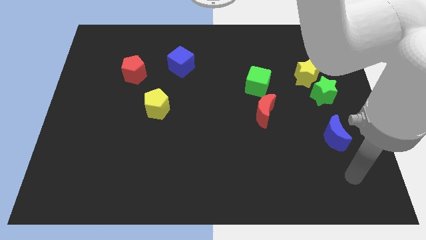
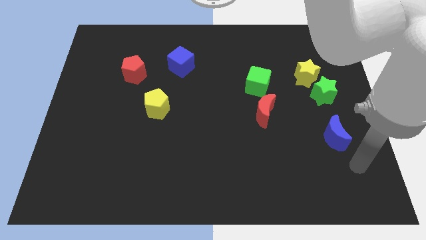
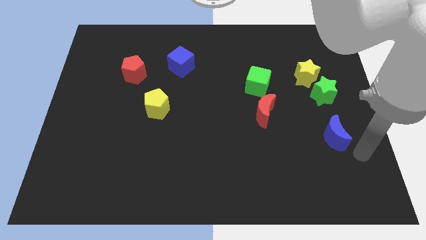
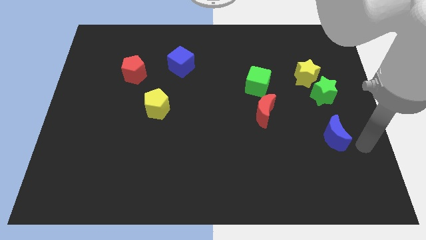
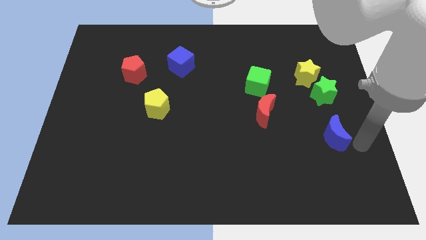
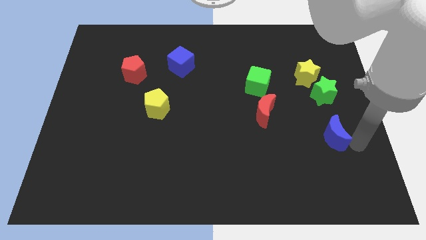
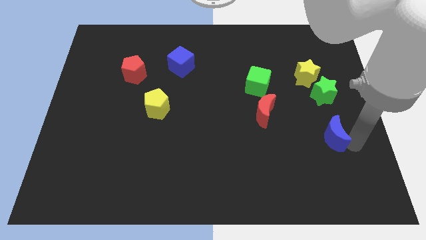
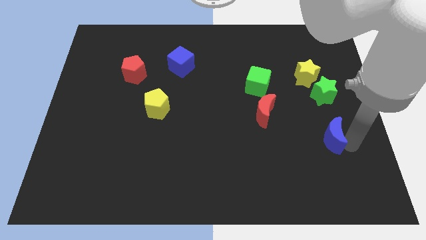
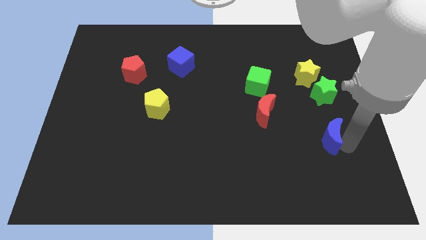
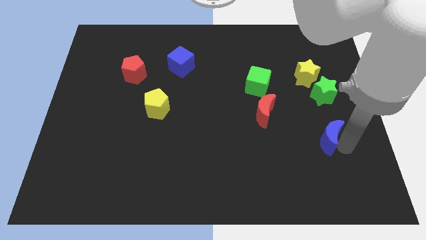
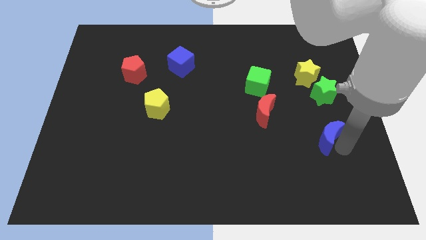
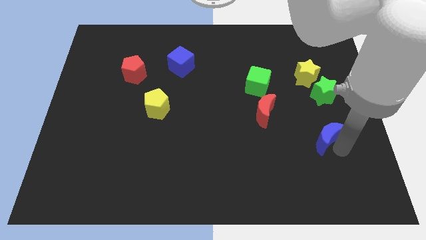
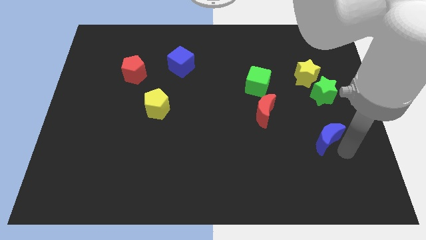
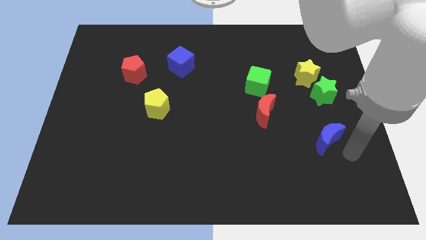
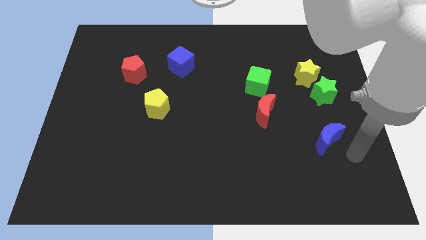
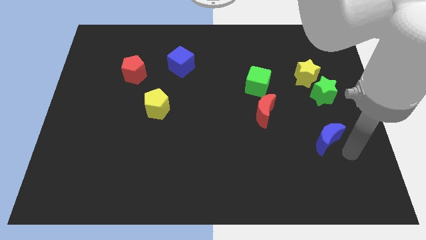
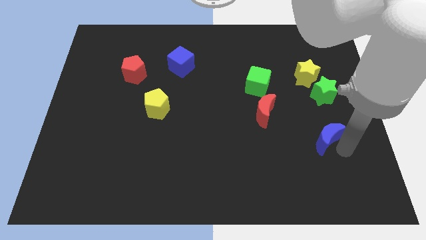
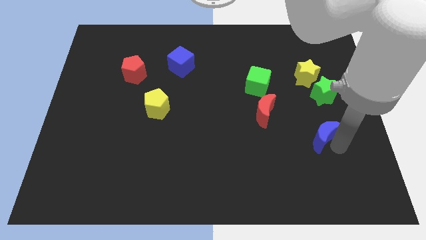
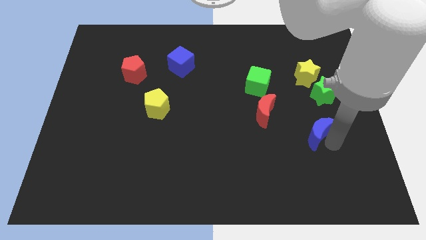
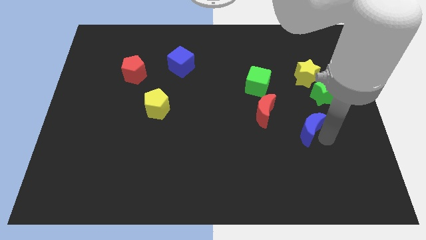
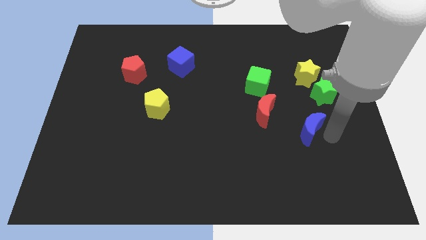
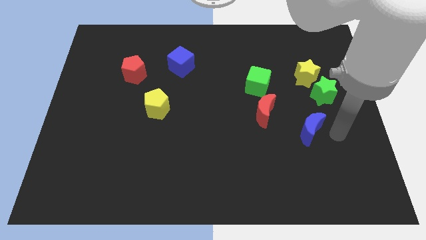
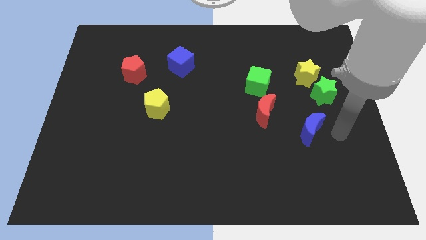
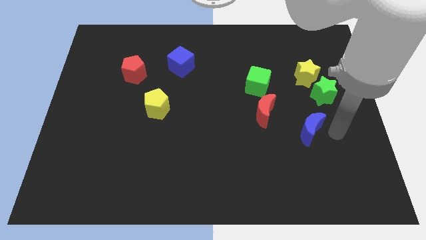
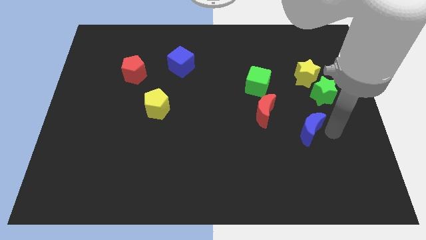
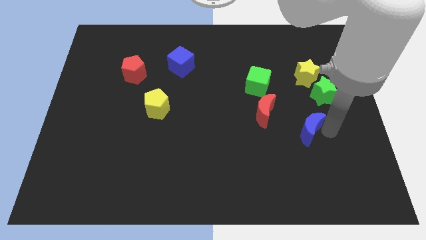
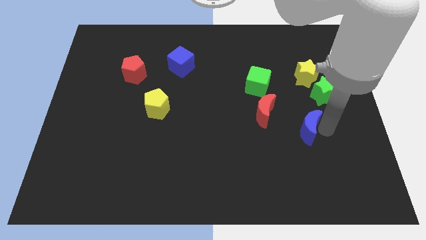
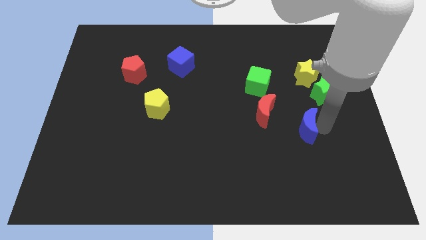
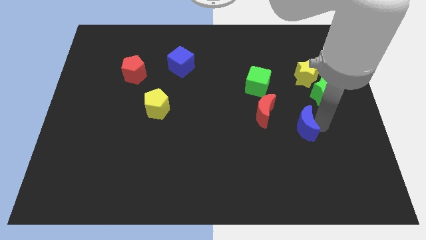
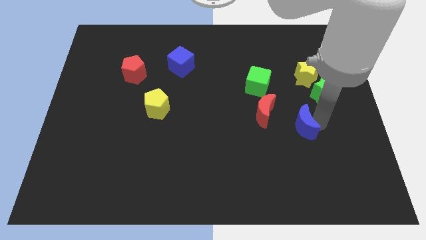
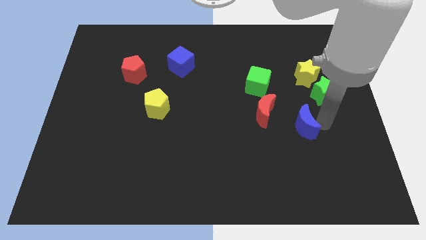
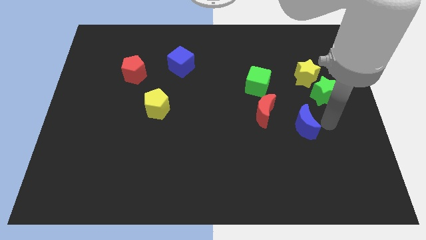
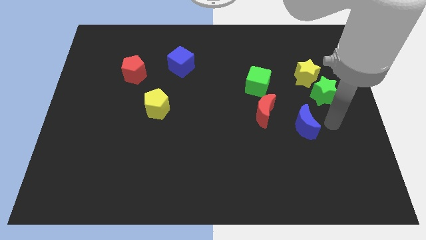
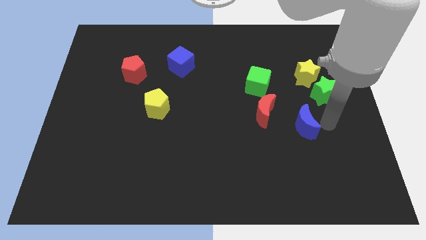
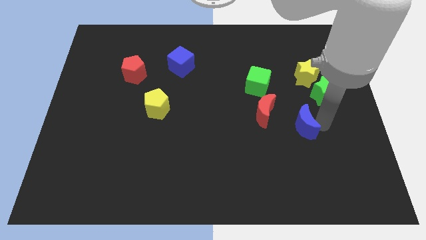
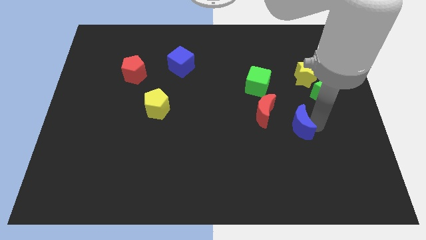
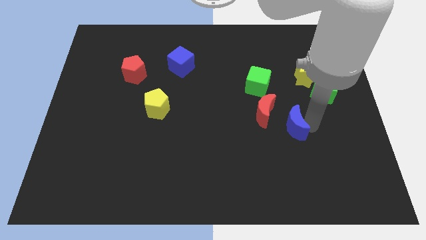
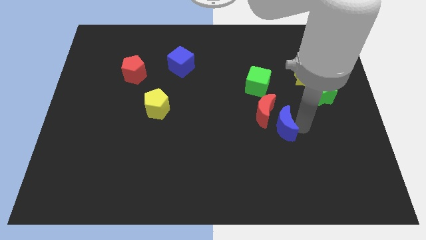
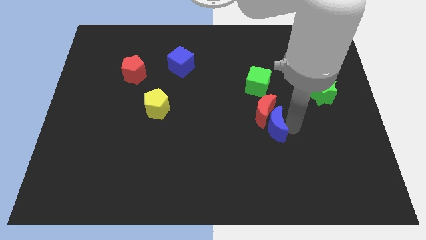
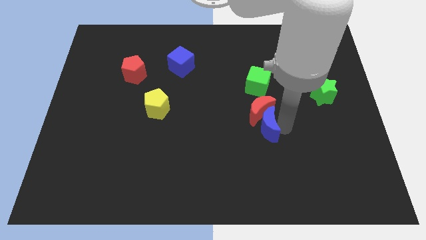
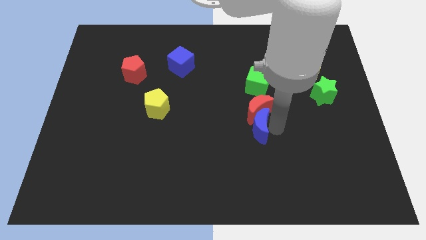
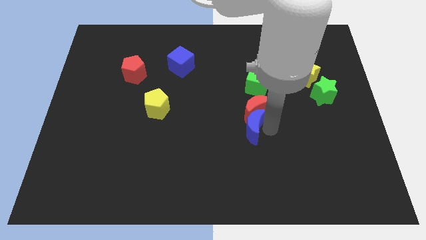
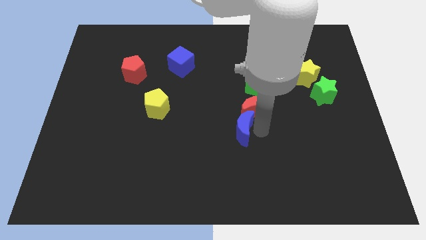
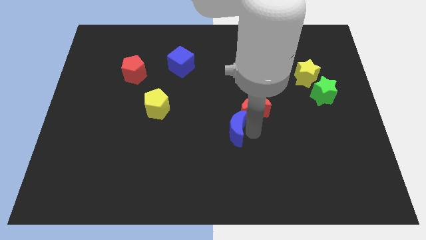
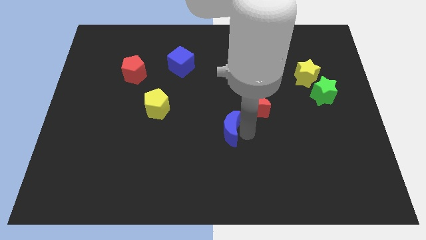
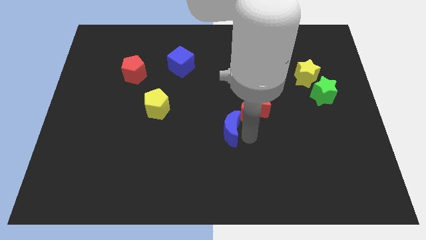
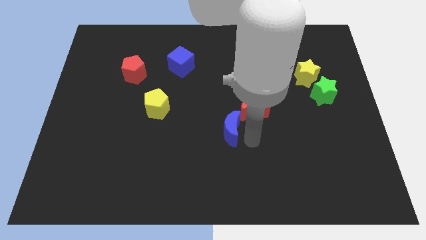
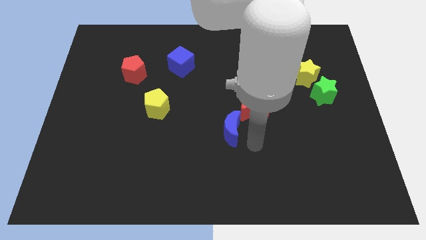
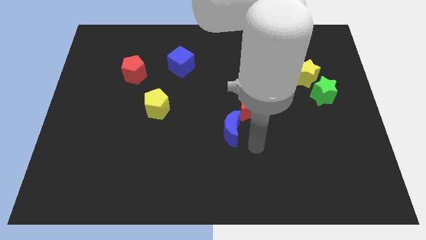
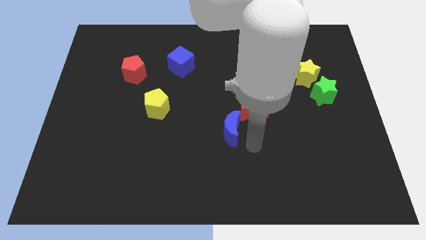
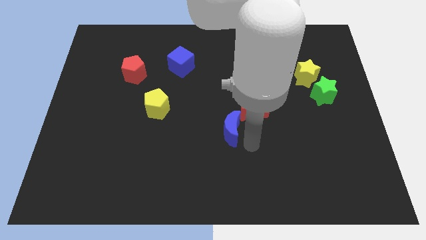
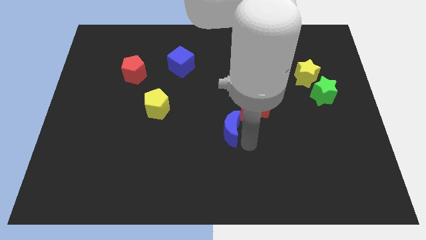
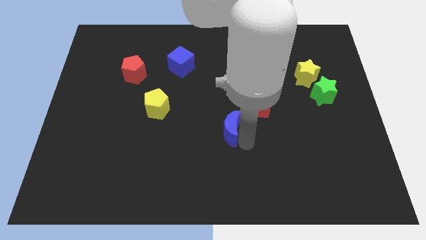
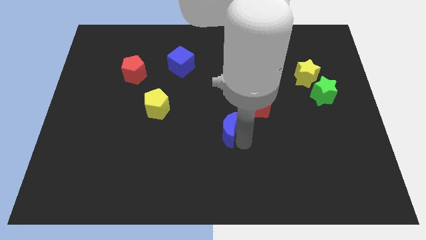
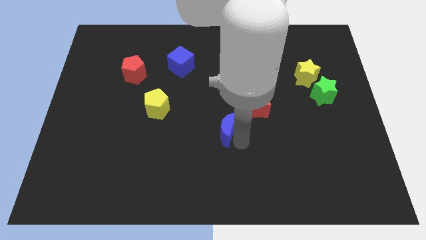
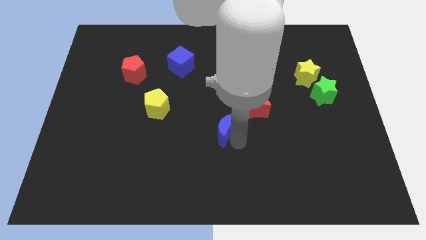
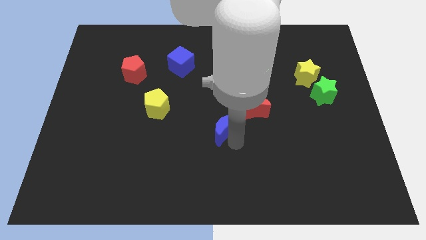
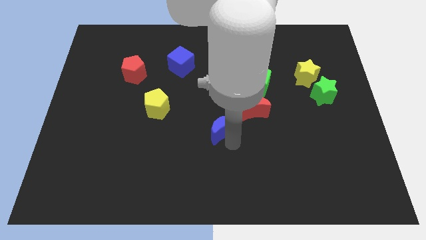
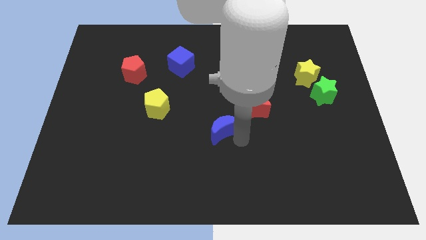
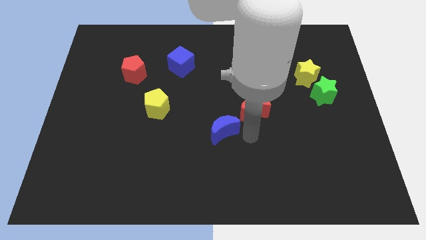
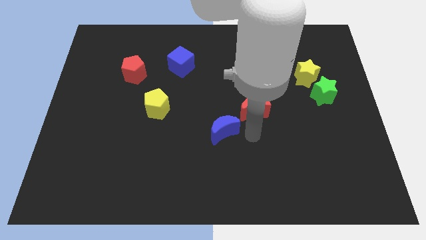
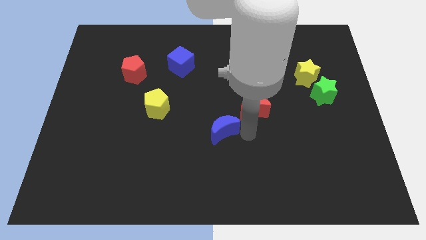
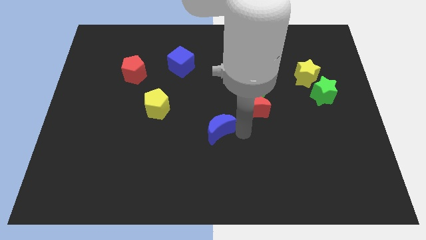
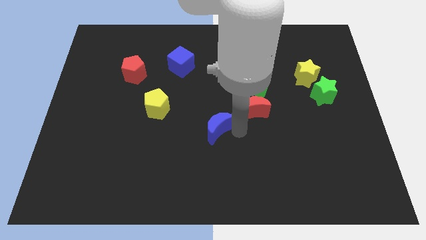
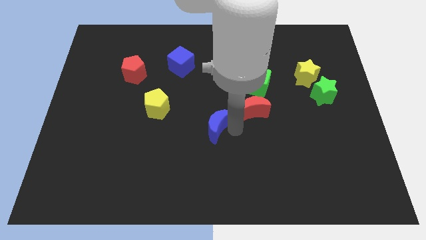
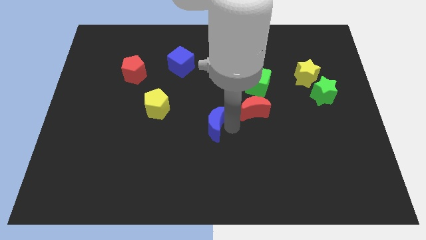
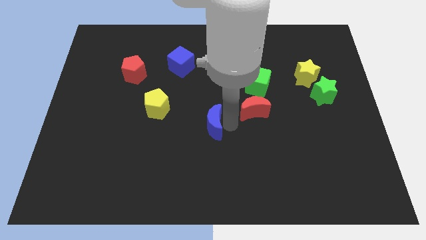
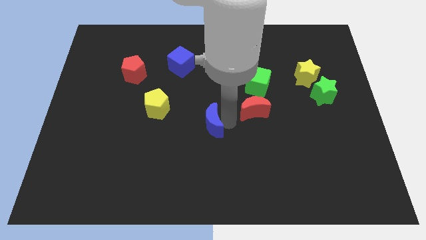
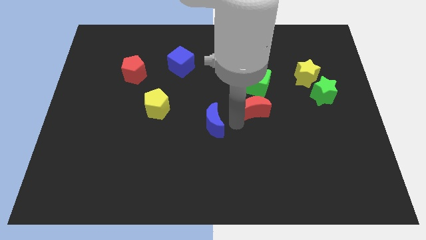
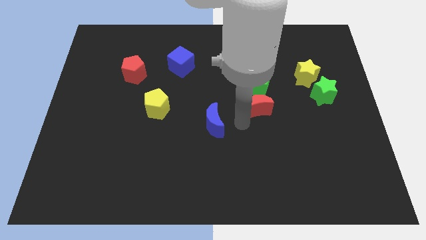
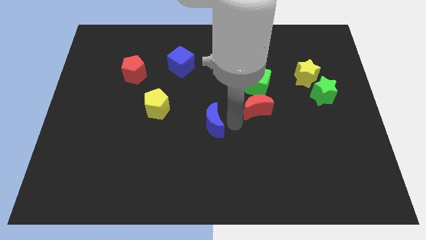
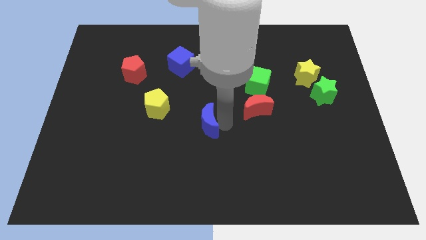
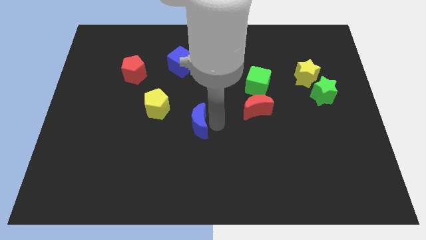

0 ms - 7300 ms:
put the blue moon to the bottom right of the yellow pentagon

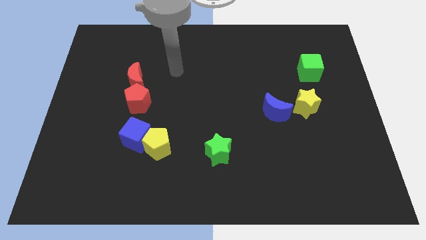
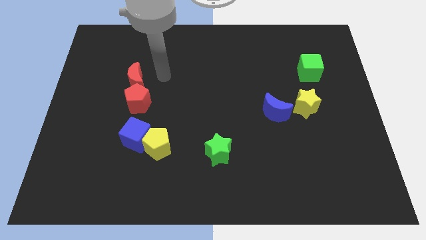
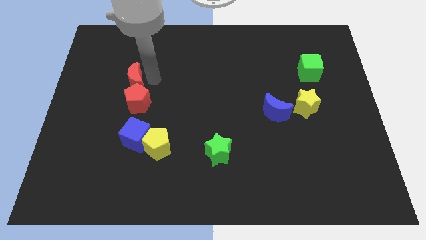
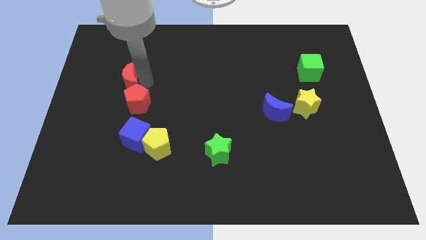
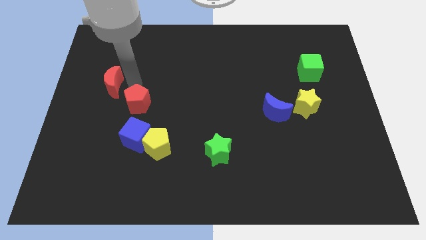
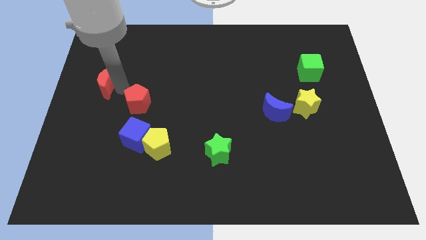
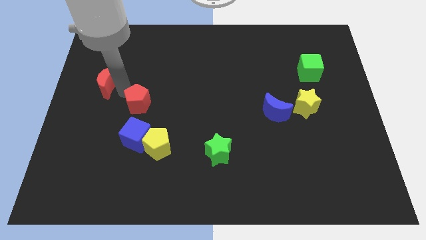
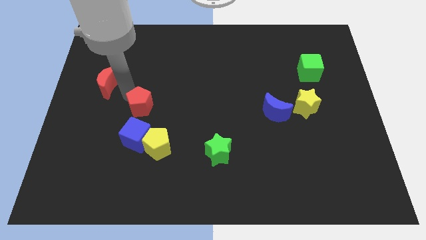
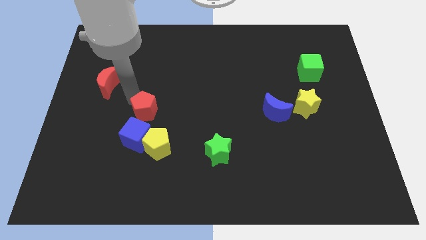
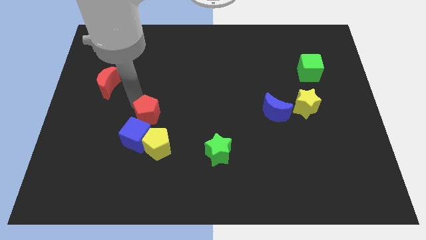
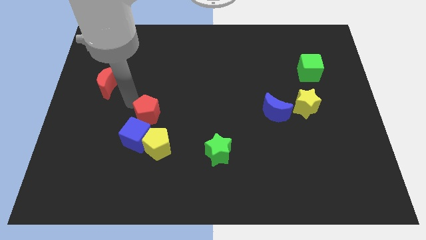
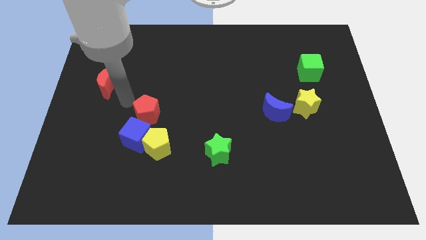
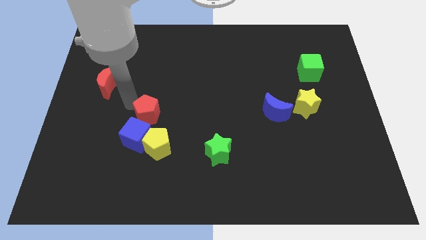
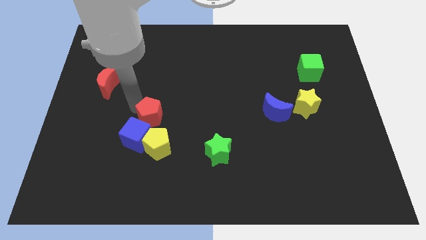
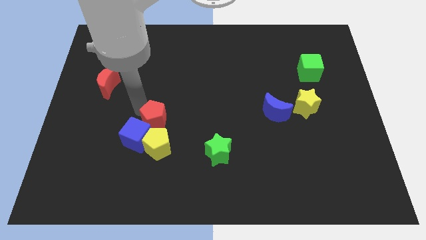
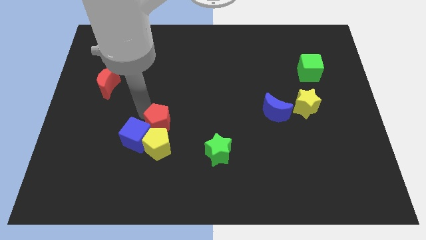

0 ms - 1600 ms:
push the red pentagon to the right of the blue cube
